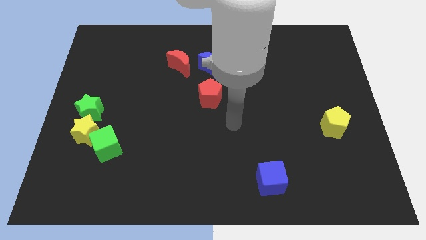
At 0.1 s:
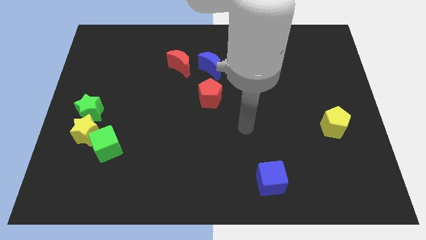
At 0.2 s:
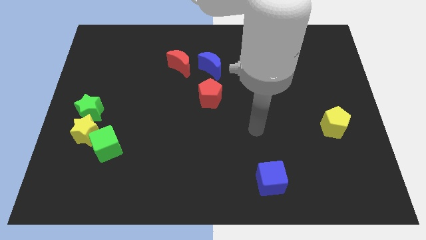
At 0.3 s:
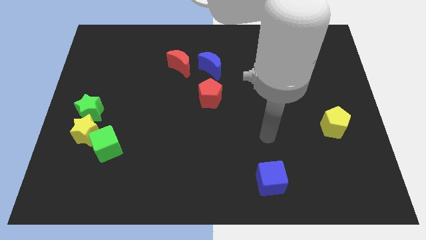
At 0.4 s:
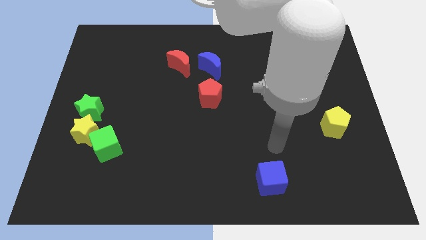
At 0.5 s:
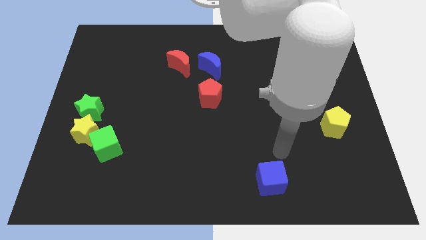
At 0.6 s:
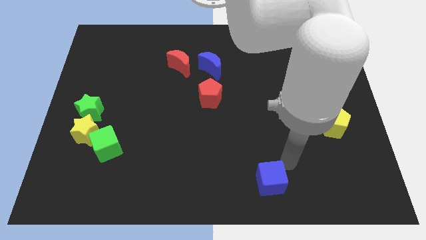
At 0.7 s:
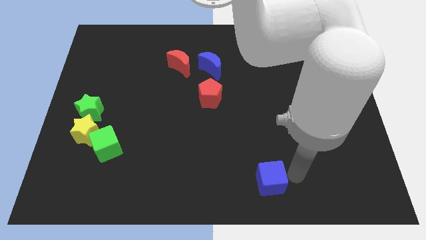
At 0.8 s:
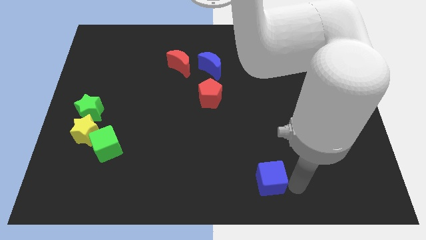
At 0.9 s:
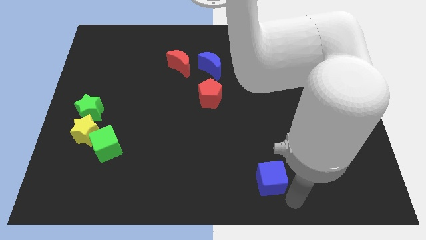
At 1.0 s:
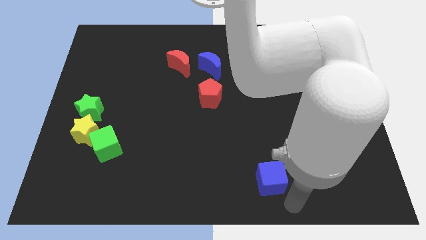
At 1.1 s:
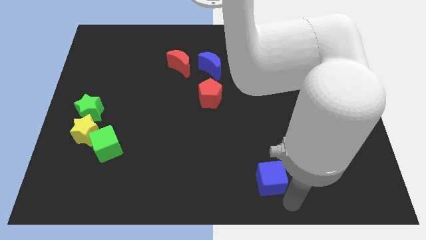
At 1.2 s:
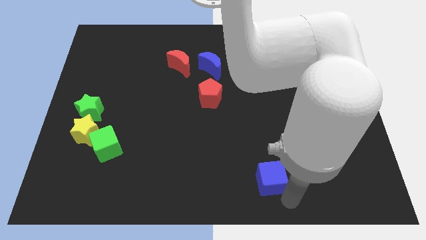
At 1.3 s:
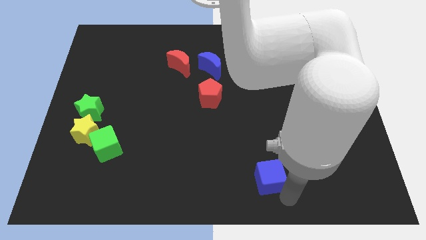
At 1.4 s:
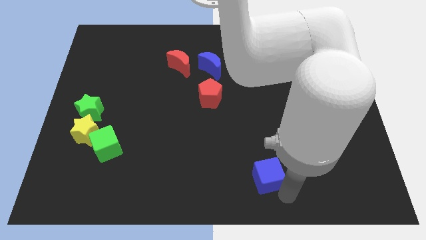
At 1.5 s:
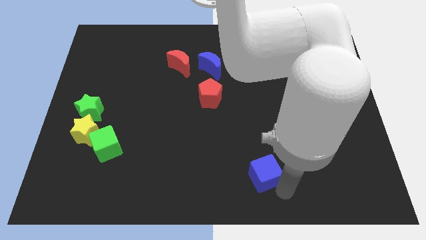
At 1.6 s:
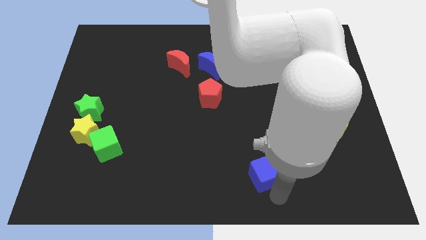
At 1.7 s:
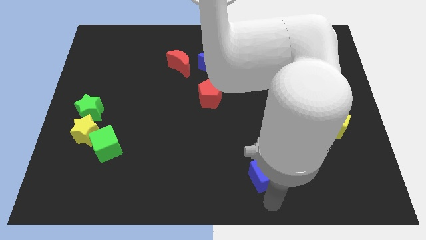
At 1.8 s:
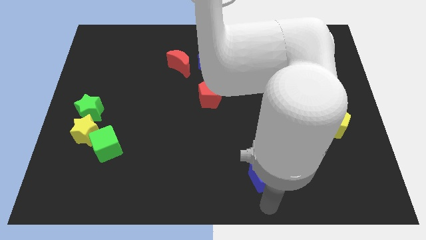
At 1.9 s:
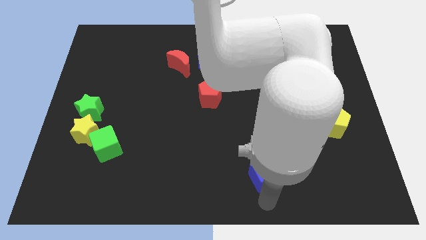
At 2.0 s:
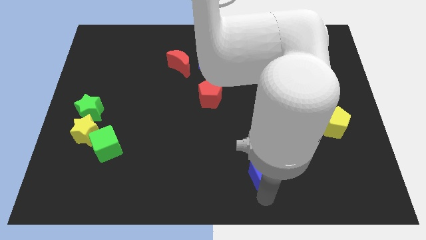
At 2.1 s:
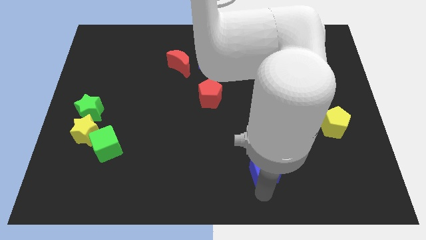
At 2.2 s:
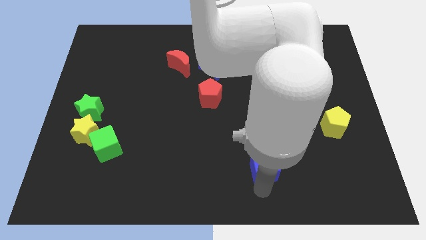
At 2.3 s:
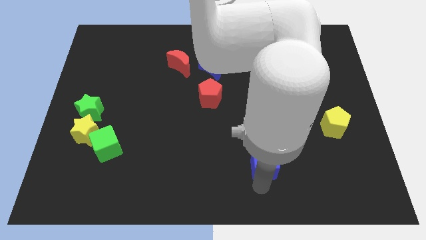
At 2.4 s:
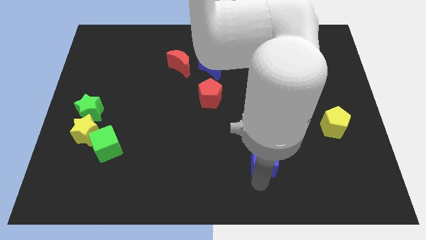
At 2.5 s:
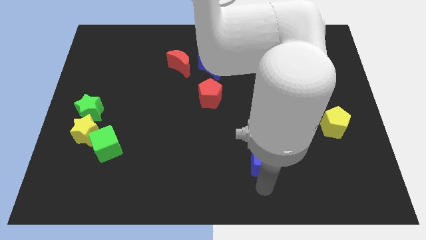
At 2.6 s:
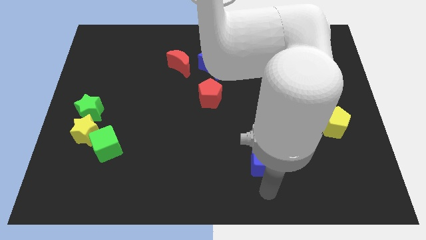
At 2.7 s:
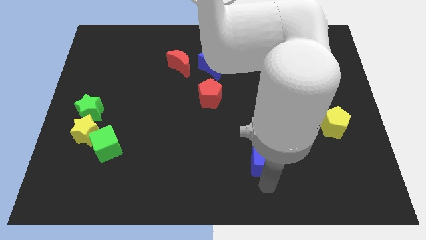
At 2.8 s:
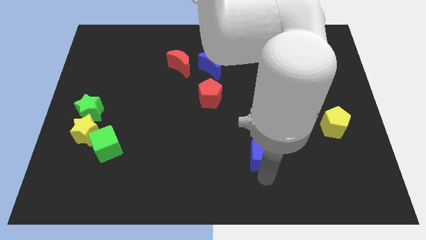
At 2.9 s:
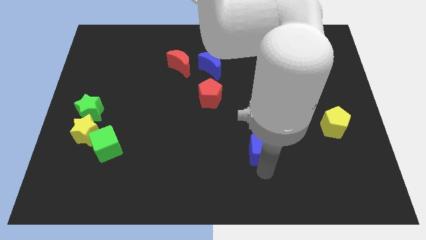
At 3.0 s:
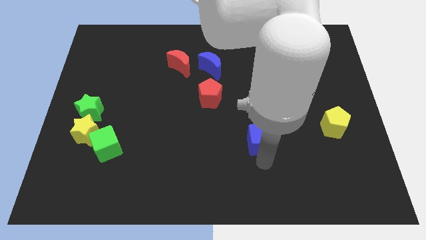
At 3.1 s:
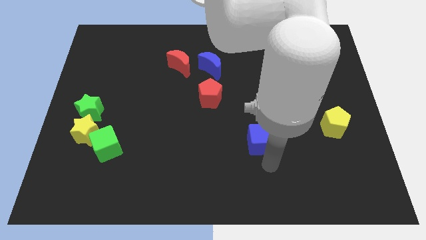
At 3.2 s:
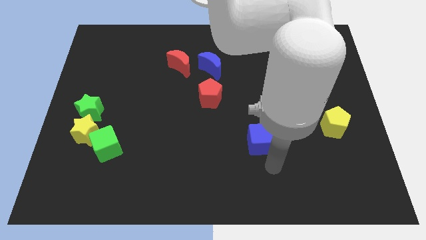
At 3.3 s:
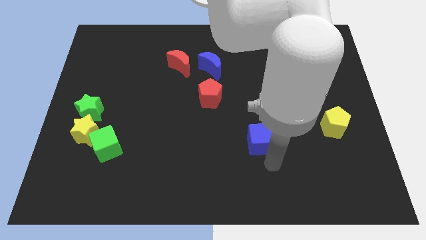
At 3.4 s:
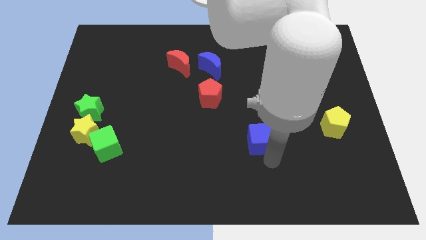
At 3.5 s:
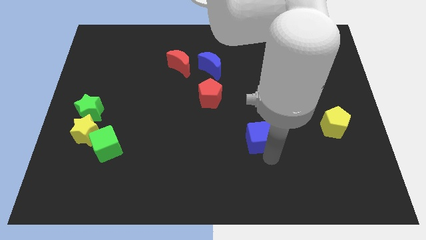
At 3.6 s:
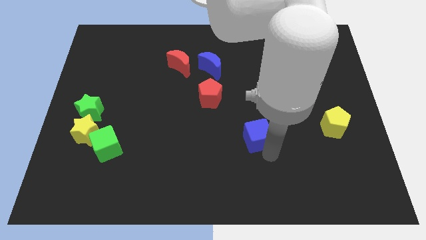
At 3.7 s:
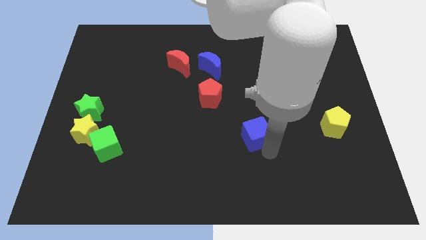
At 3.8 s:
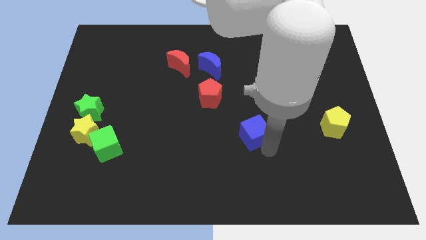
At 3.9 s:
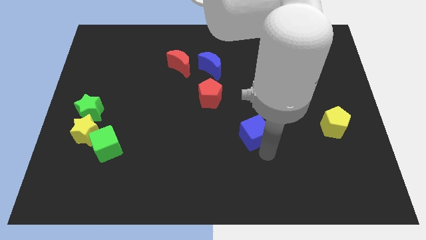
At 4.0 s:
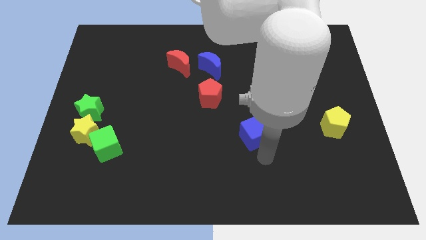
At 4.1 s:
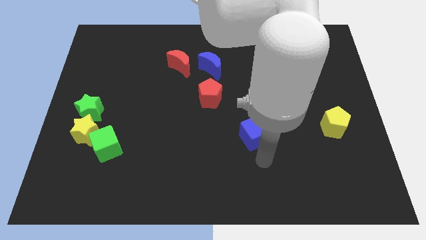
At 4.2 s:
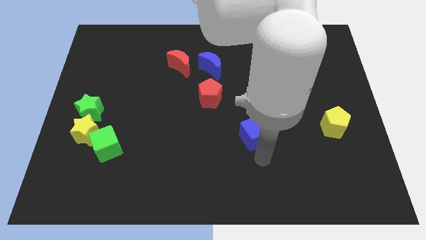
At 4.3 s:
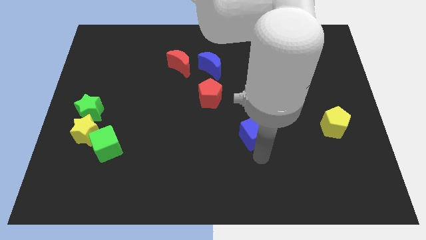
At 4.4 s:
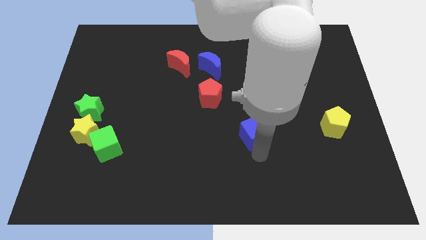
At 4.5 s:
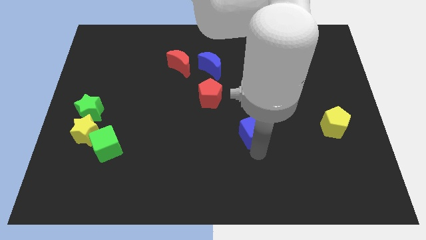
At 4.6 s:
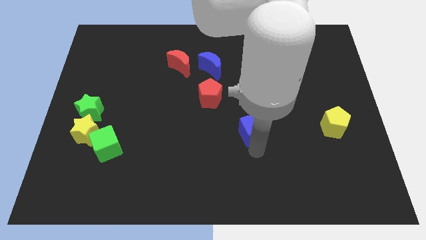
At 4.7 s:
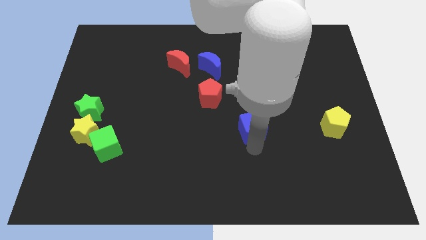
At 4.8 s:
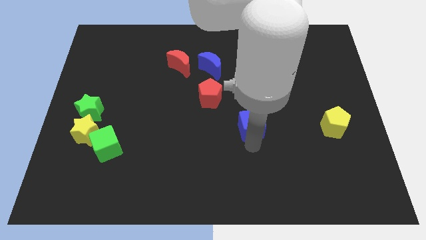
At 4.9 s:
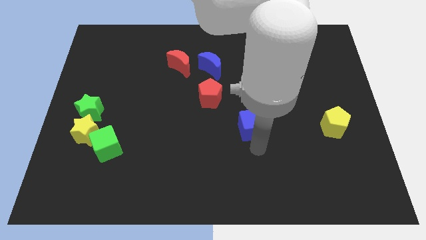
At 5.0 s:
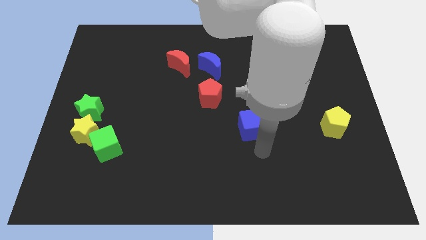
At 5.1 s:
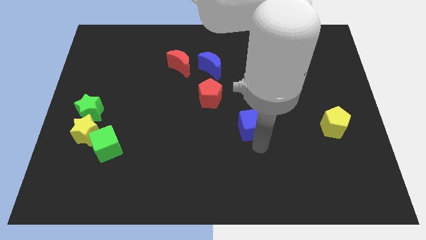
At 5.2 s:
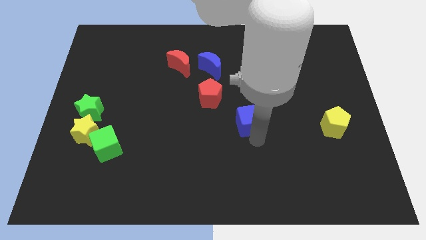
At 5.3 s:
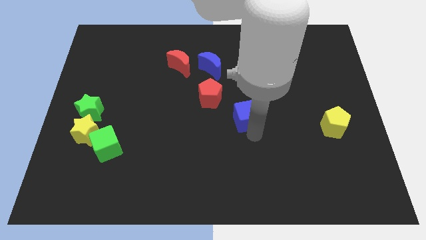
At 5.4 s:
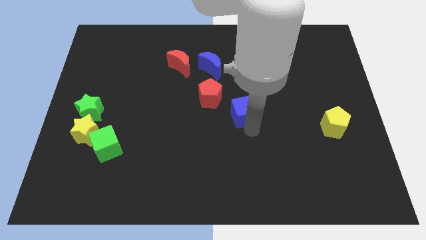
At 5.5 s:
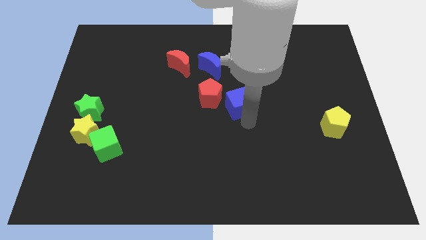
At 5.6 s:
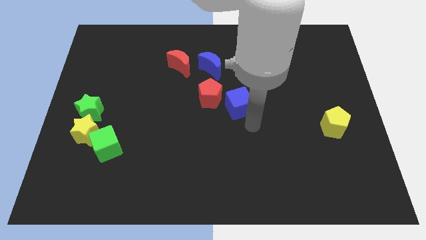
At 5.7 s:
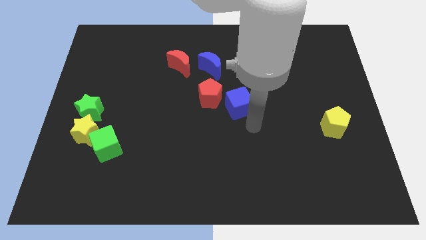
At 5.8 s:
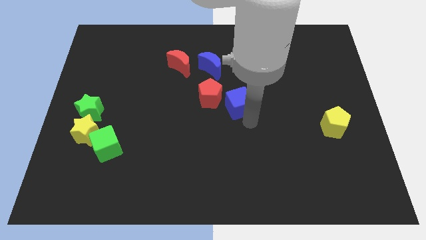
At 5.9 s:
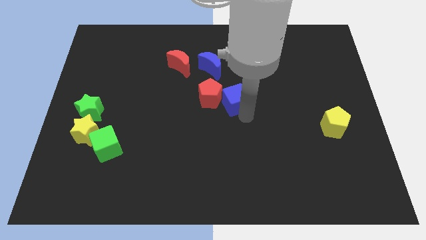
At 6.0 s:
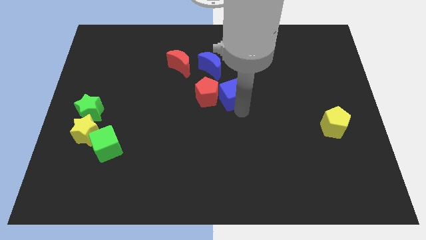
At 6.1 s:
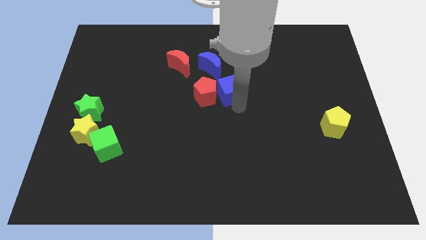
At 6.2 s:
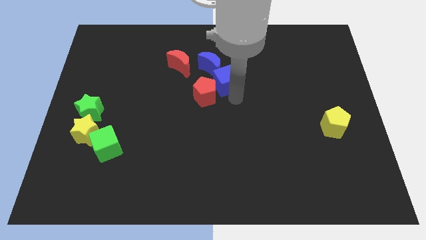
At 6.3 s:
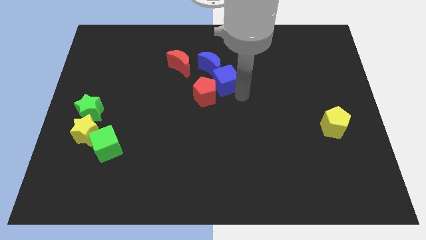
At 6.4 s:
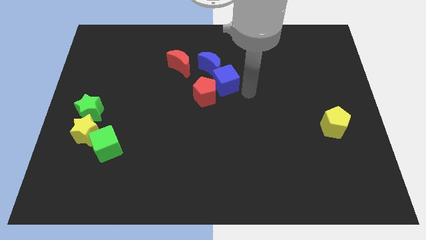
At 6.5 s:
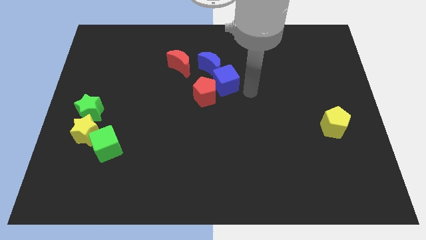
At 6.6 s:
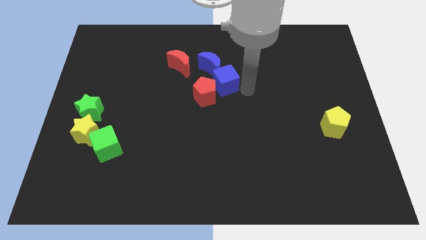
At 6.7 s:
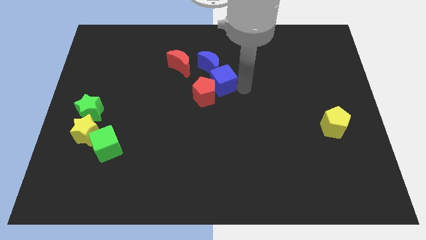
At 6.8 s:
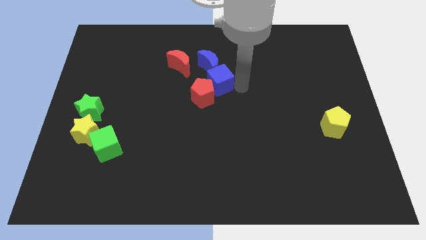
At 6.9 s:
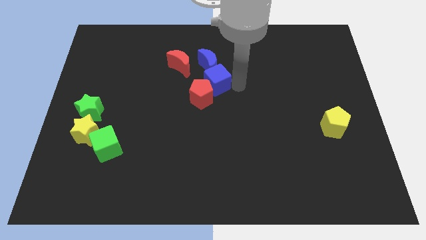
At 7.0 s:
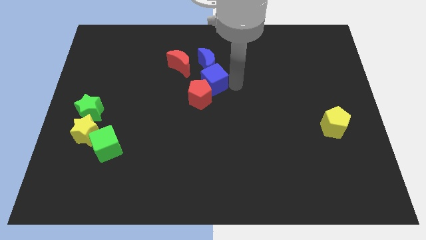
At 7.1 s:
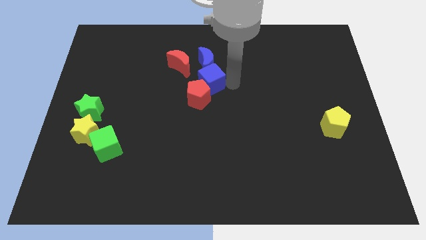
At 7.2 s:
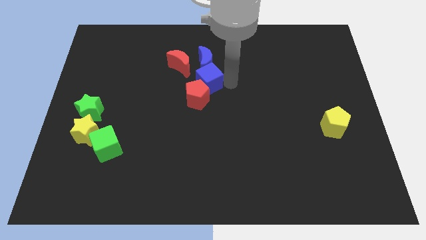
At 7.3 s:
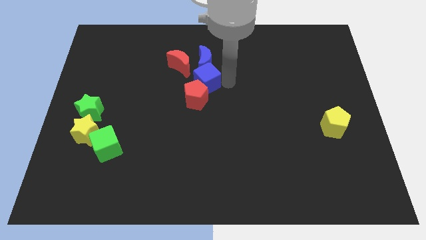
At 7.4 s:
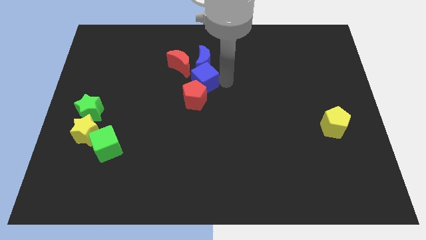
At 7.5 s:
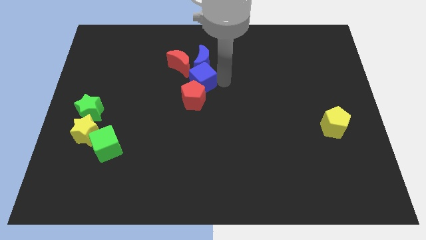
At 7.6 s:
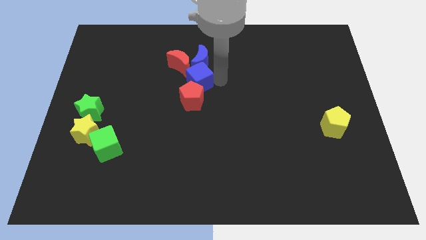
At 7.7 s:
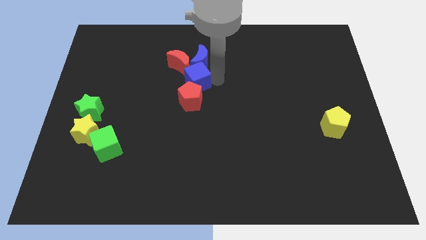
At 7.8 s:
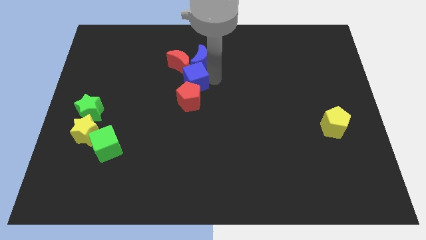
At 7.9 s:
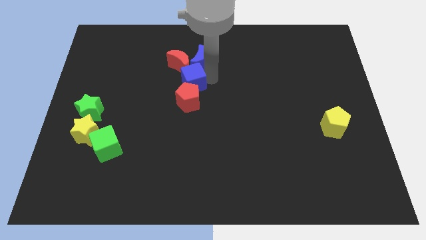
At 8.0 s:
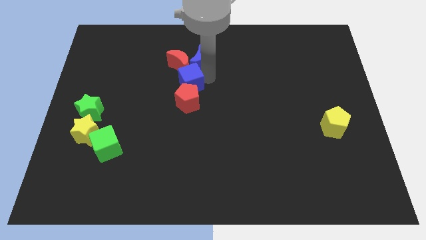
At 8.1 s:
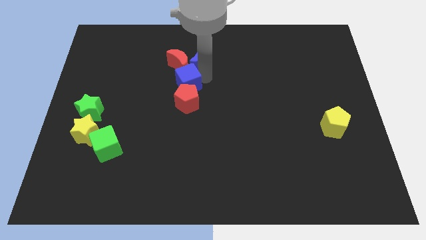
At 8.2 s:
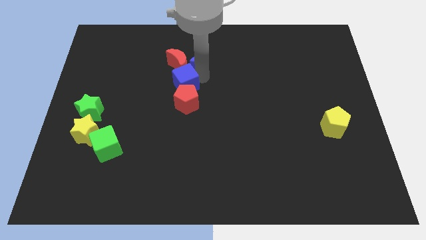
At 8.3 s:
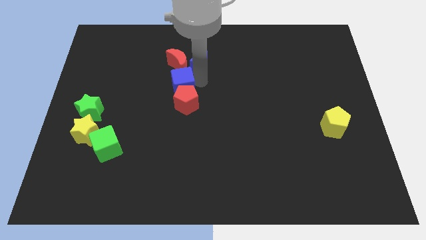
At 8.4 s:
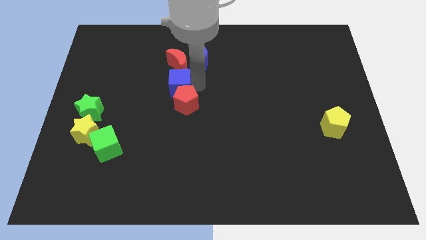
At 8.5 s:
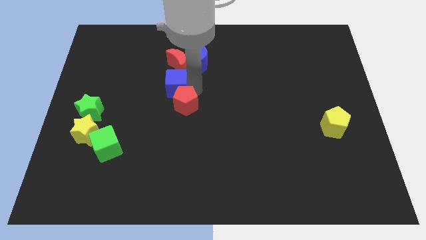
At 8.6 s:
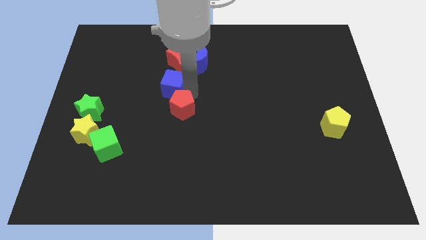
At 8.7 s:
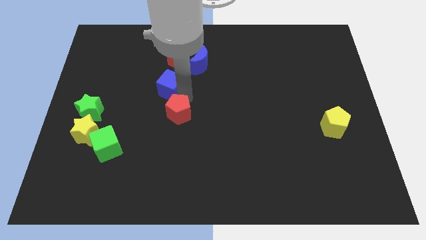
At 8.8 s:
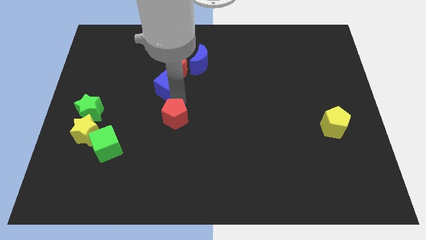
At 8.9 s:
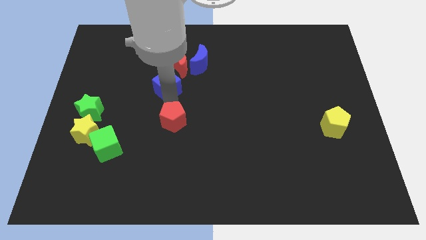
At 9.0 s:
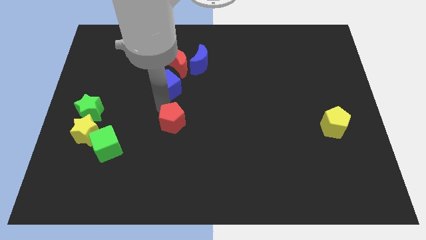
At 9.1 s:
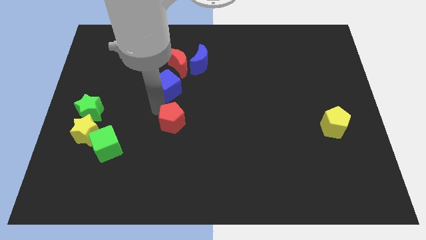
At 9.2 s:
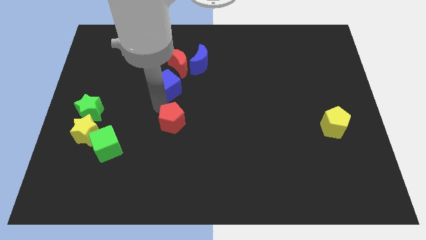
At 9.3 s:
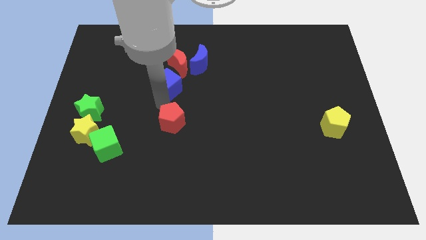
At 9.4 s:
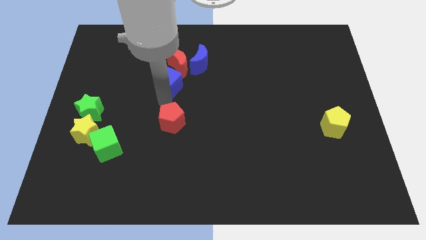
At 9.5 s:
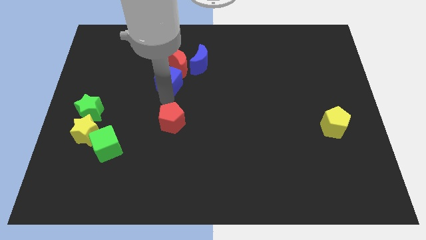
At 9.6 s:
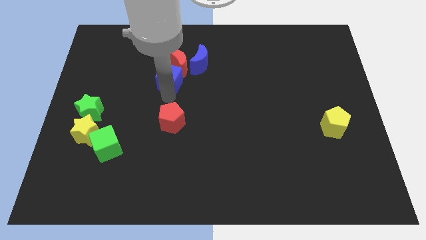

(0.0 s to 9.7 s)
put the blue cube to the red moon
